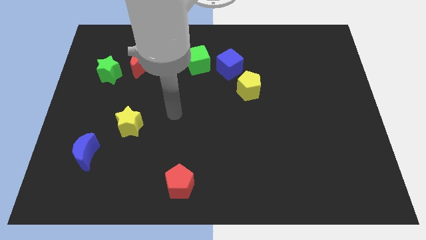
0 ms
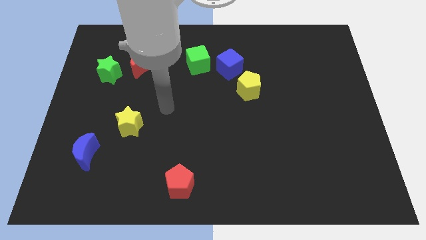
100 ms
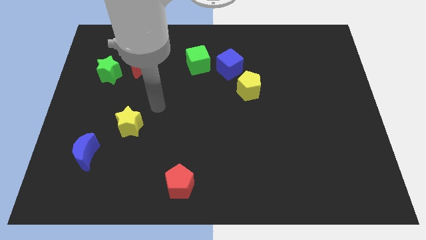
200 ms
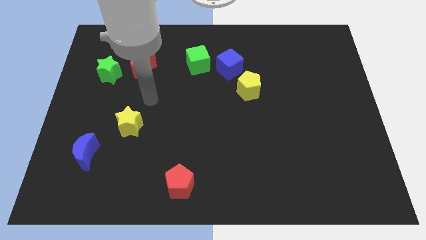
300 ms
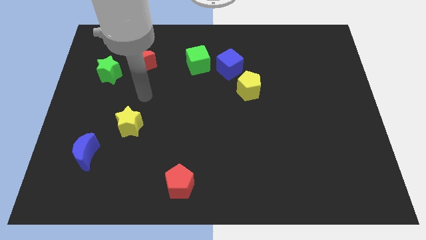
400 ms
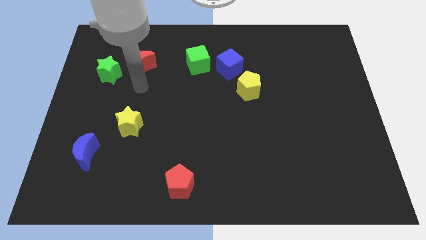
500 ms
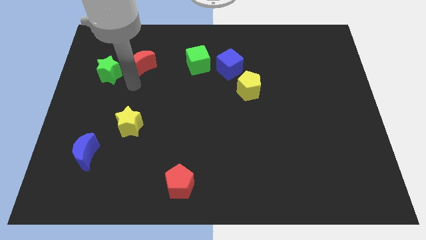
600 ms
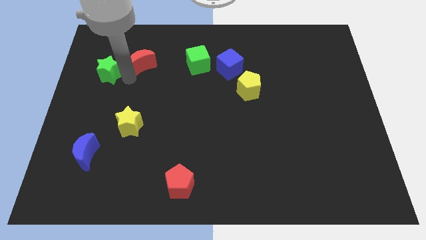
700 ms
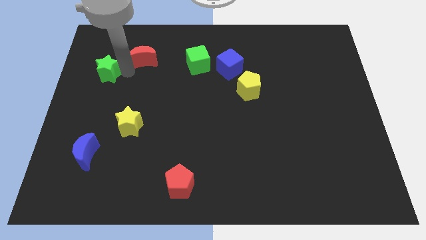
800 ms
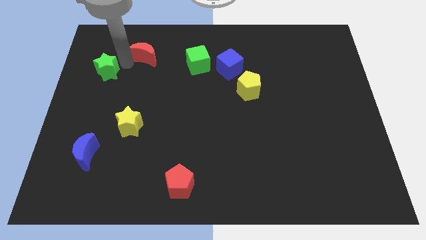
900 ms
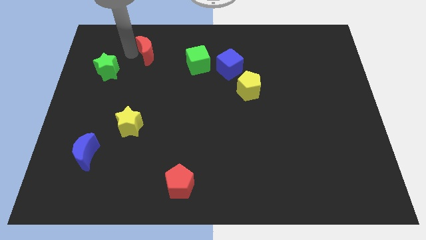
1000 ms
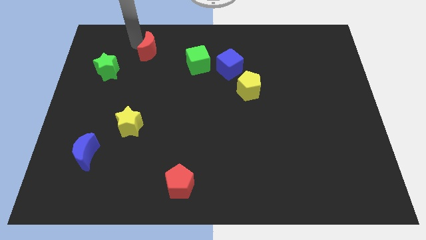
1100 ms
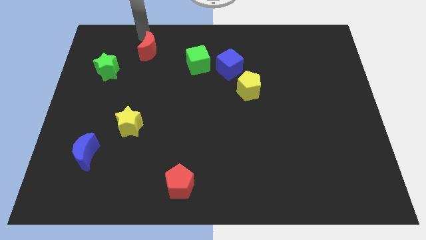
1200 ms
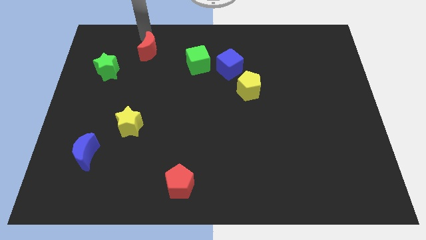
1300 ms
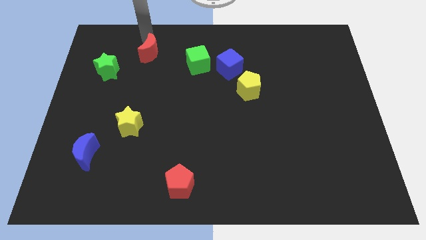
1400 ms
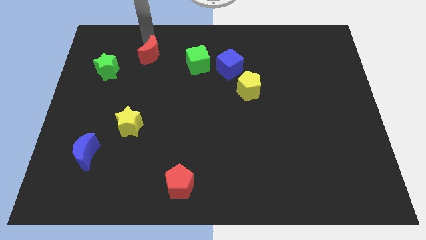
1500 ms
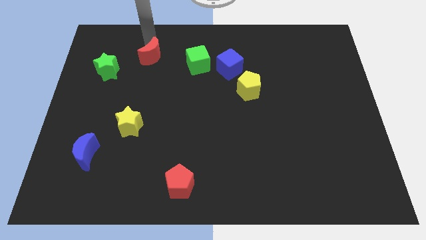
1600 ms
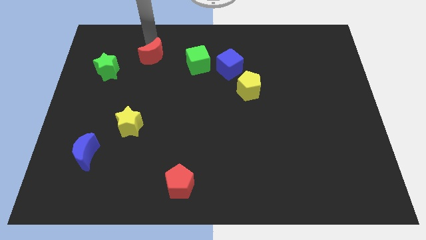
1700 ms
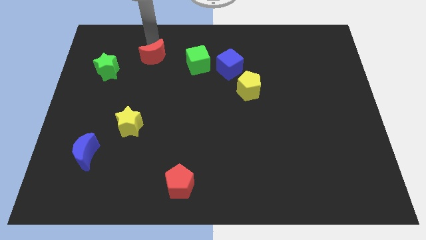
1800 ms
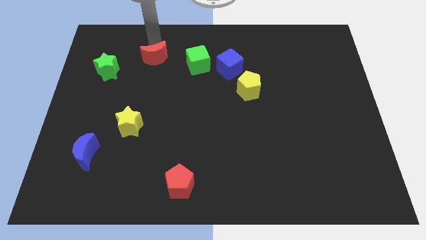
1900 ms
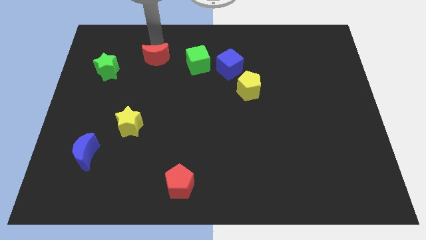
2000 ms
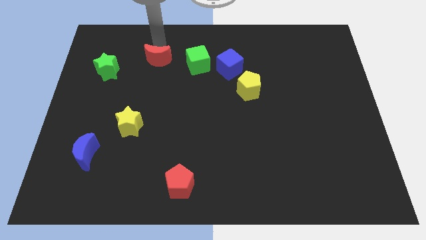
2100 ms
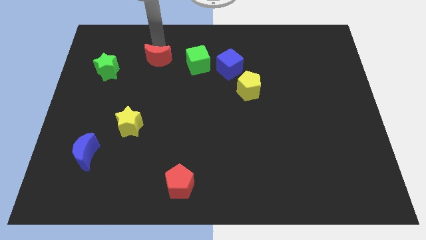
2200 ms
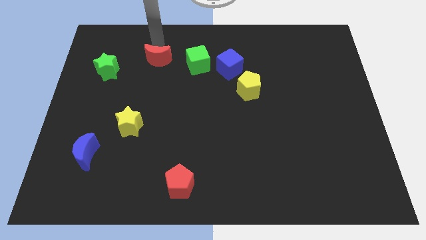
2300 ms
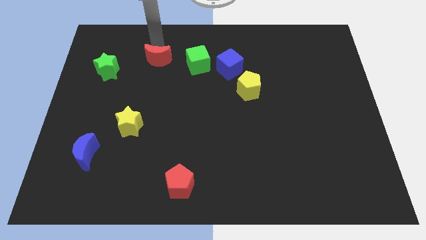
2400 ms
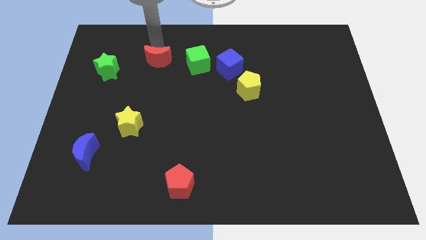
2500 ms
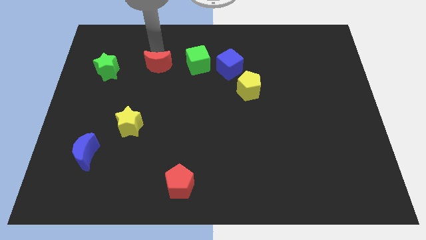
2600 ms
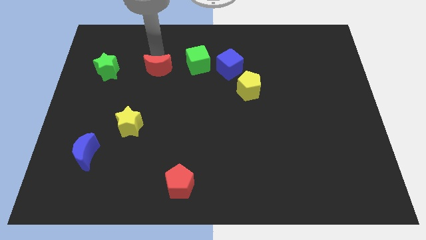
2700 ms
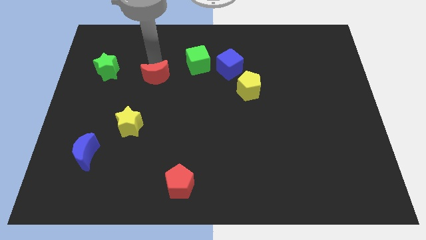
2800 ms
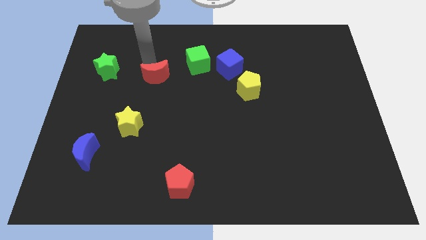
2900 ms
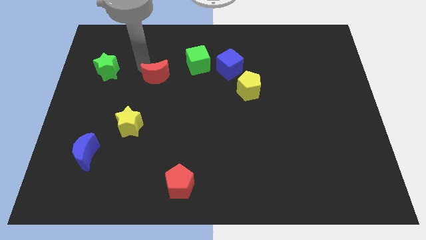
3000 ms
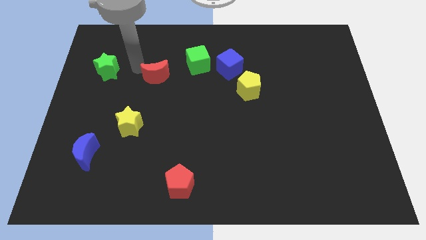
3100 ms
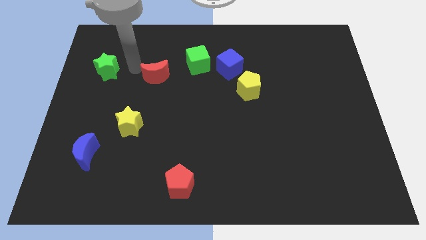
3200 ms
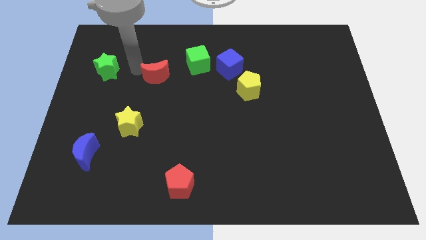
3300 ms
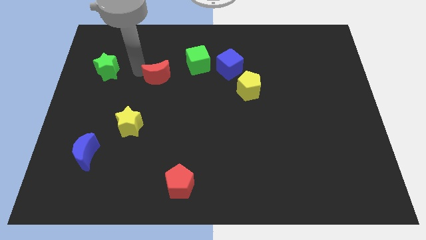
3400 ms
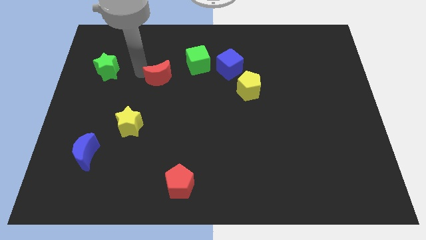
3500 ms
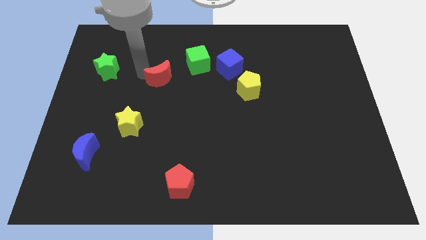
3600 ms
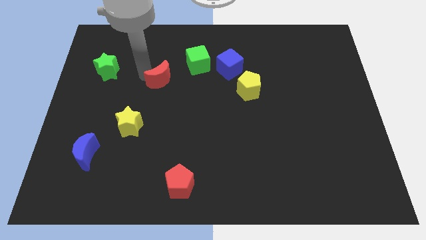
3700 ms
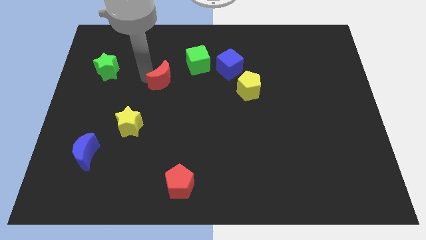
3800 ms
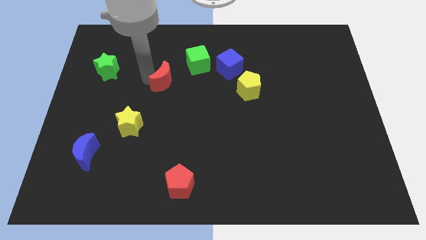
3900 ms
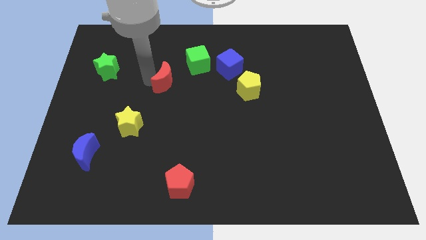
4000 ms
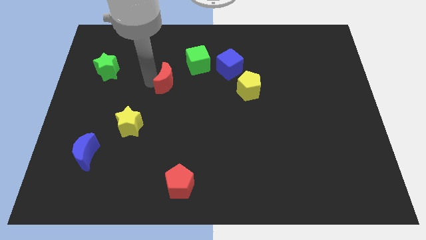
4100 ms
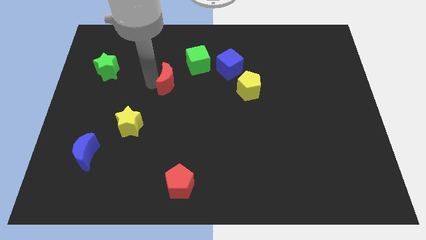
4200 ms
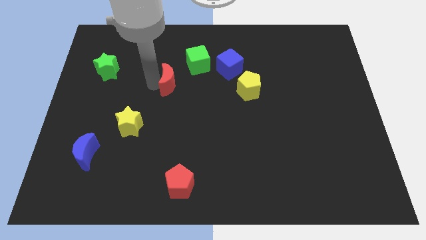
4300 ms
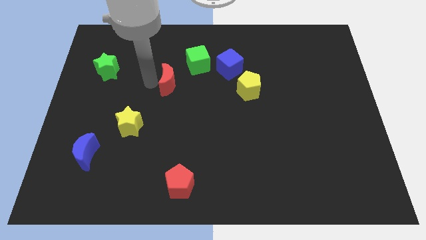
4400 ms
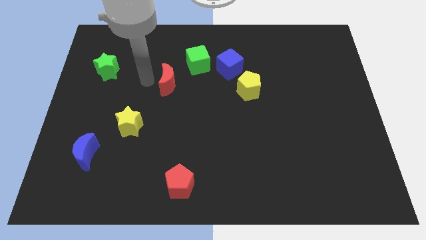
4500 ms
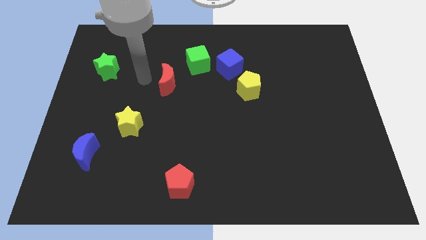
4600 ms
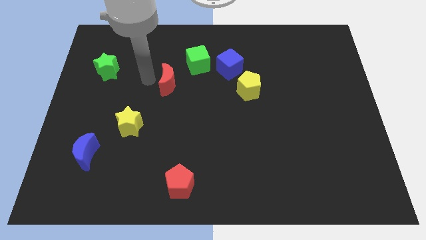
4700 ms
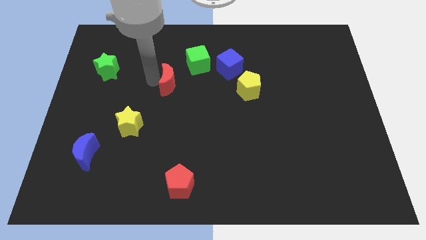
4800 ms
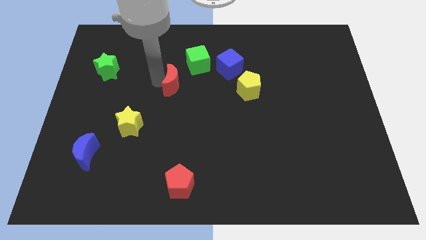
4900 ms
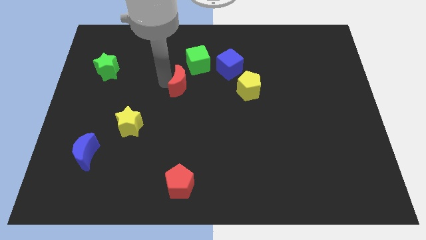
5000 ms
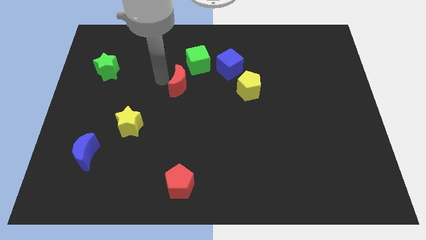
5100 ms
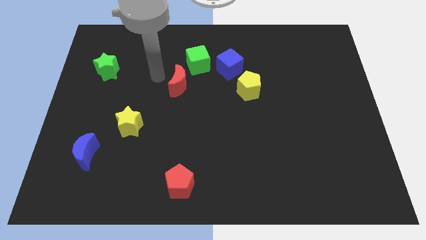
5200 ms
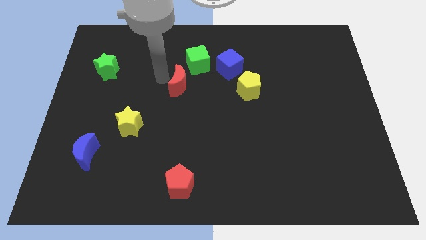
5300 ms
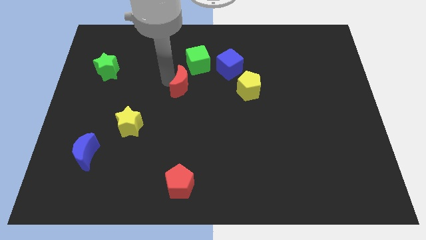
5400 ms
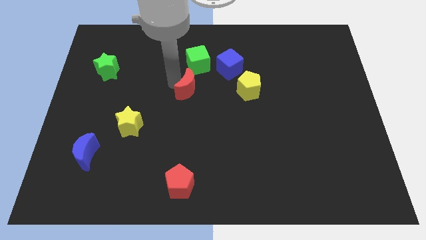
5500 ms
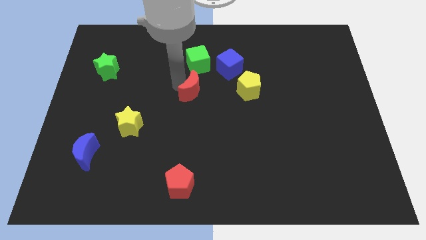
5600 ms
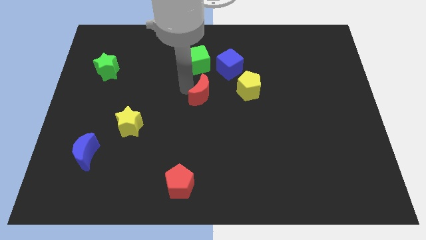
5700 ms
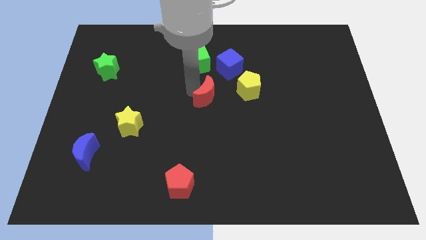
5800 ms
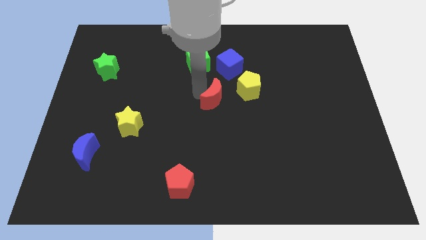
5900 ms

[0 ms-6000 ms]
slide the red moon to the bottom left side of the yellow pentagon
